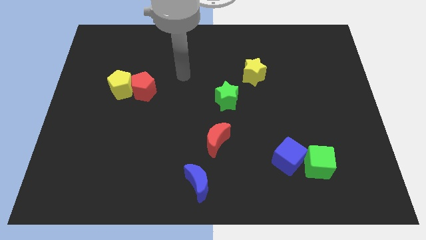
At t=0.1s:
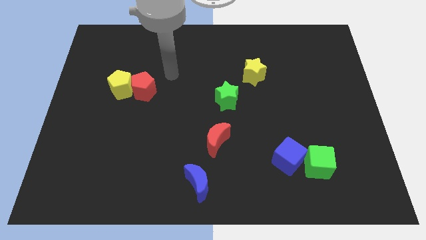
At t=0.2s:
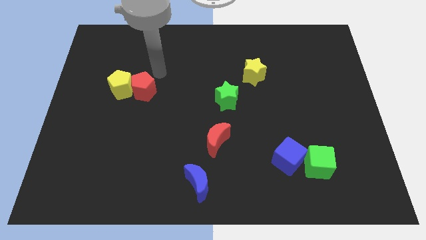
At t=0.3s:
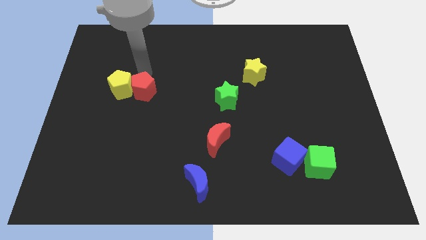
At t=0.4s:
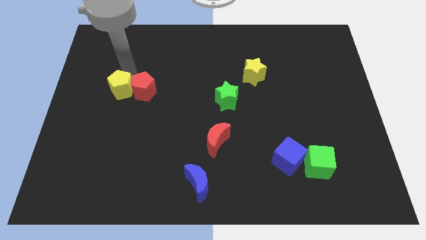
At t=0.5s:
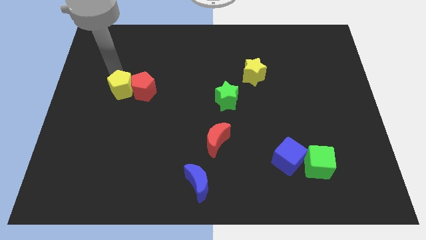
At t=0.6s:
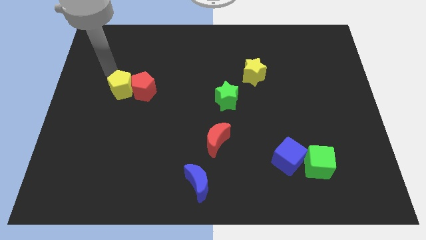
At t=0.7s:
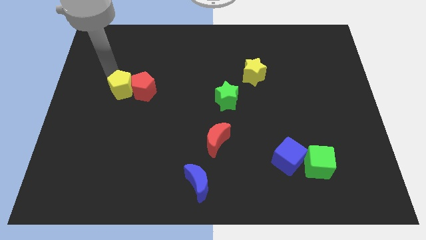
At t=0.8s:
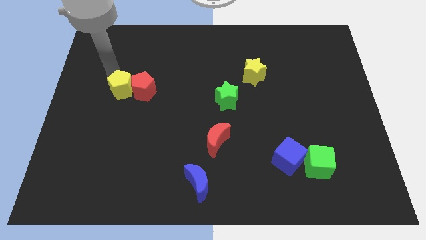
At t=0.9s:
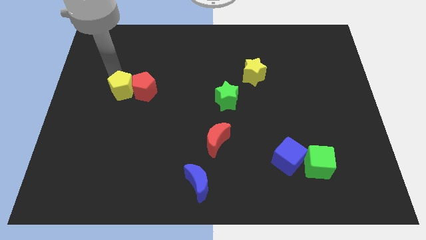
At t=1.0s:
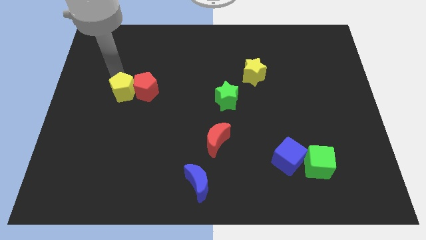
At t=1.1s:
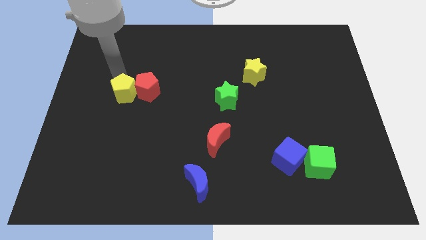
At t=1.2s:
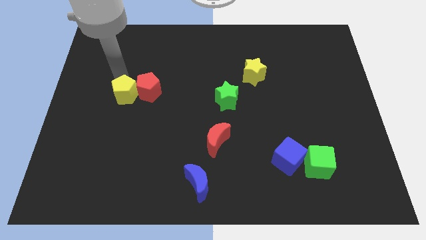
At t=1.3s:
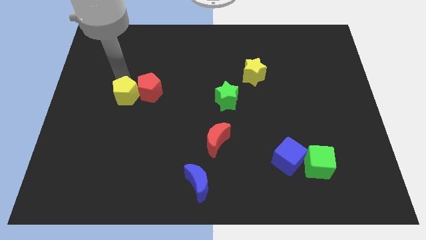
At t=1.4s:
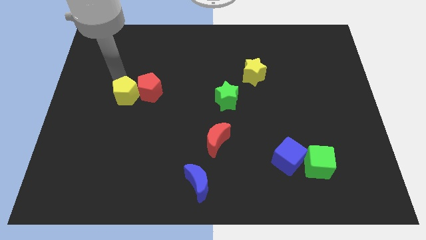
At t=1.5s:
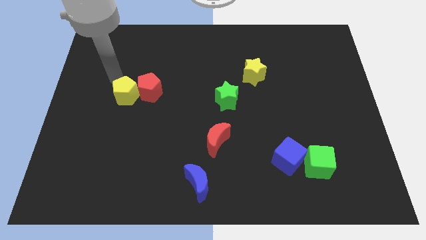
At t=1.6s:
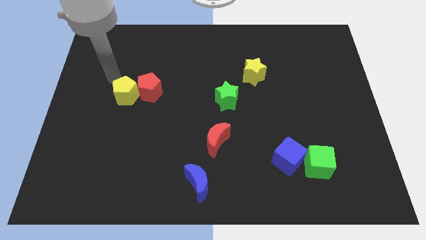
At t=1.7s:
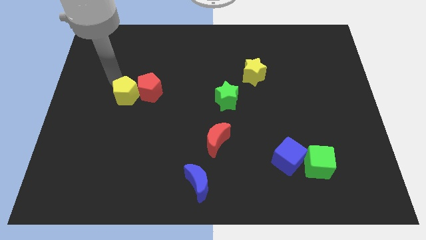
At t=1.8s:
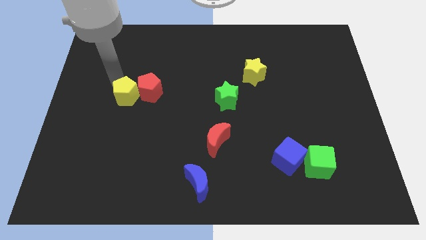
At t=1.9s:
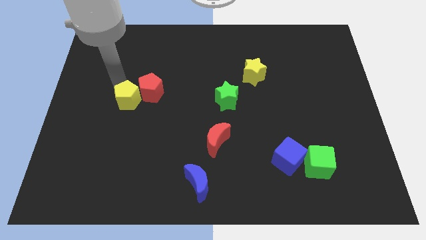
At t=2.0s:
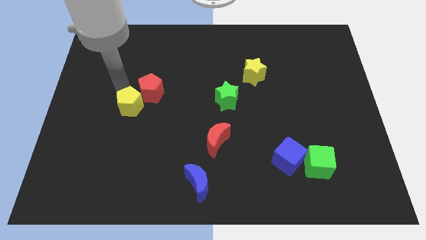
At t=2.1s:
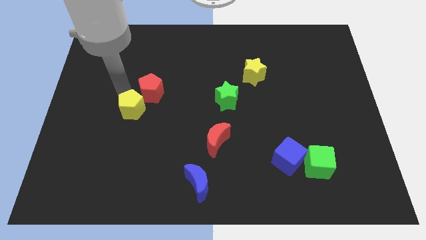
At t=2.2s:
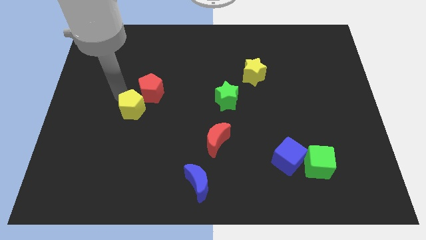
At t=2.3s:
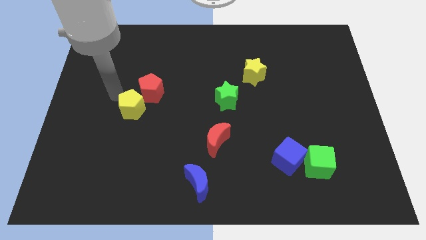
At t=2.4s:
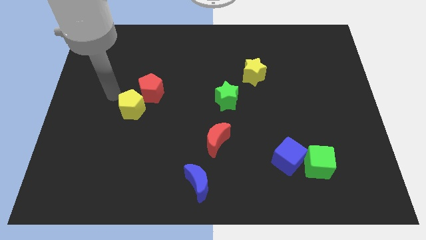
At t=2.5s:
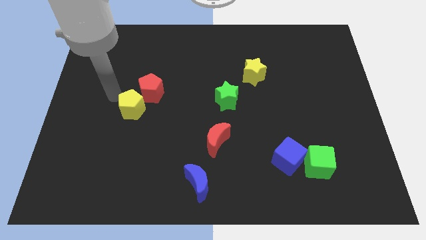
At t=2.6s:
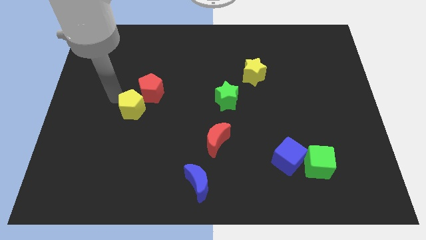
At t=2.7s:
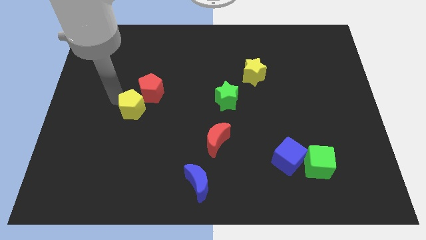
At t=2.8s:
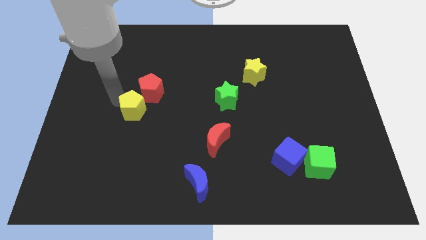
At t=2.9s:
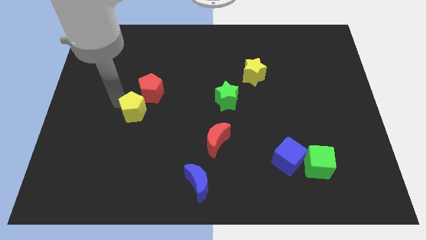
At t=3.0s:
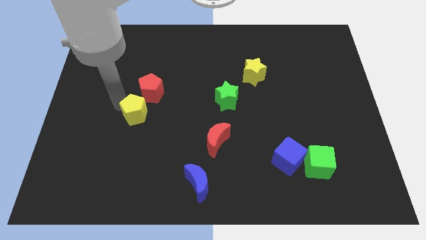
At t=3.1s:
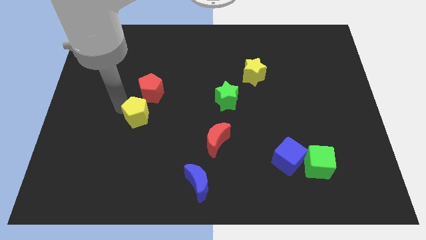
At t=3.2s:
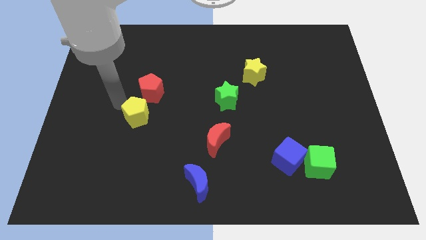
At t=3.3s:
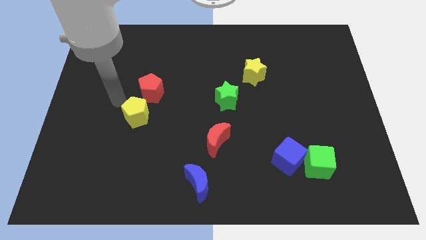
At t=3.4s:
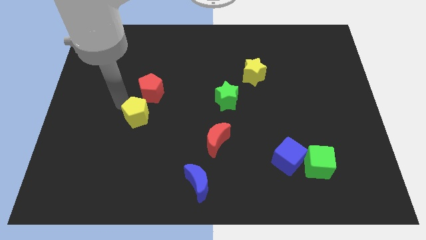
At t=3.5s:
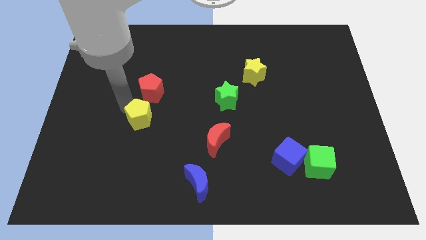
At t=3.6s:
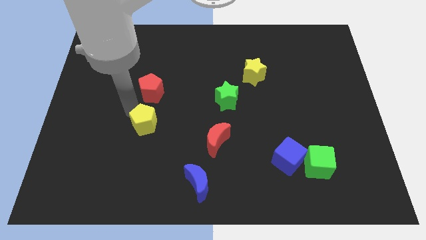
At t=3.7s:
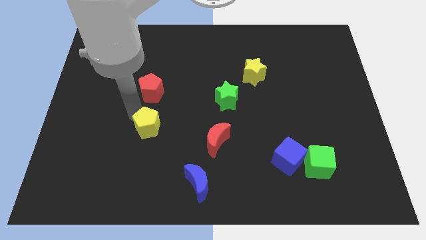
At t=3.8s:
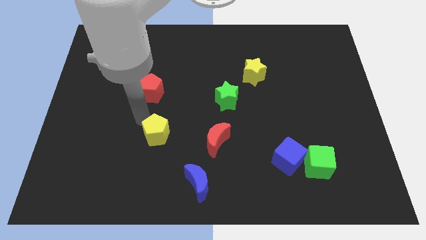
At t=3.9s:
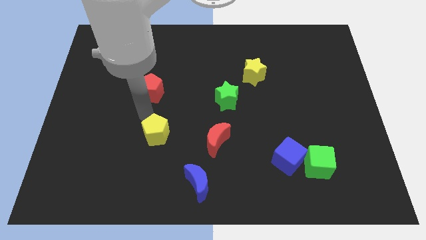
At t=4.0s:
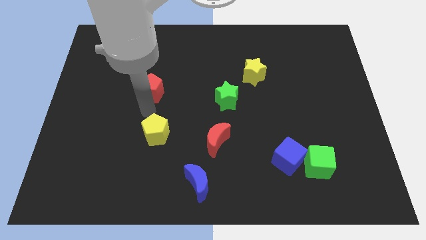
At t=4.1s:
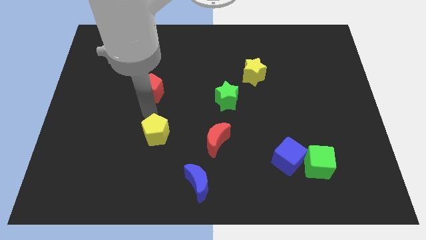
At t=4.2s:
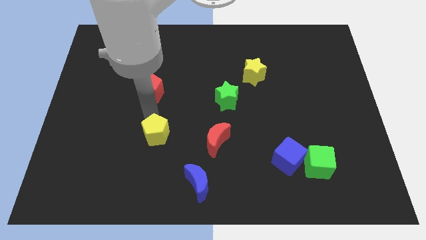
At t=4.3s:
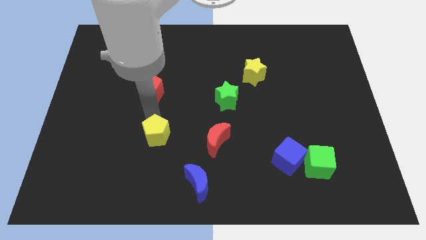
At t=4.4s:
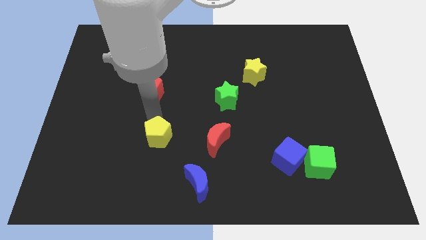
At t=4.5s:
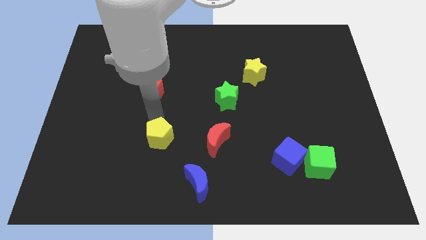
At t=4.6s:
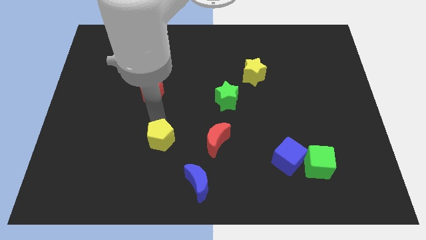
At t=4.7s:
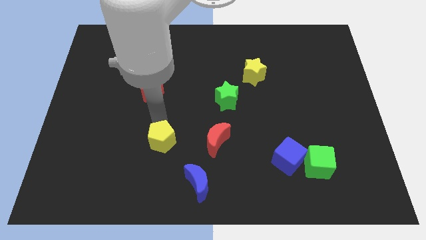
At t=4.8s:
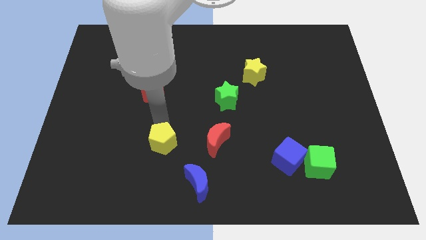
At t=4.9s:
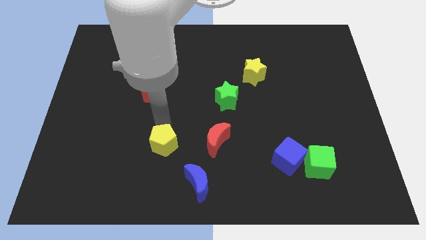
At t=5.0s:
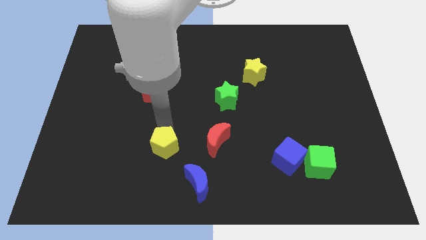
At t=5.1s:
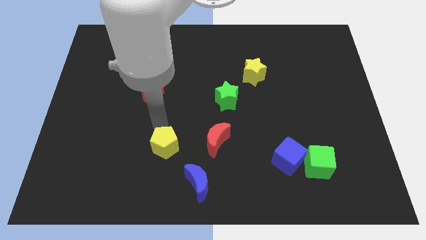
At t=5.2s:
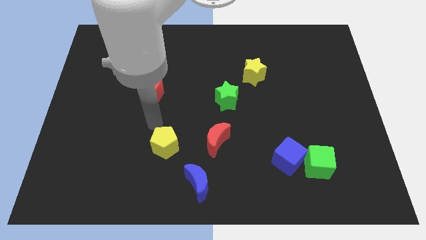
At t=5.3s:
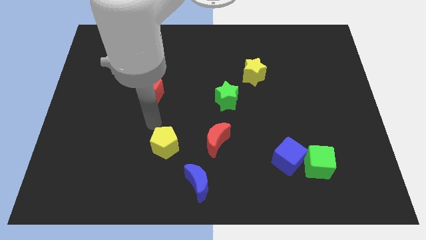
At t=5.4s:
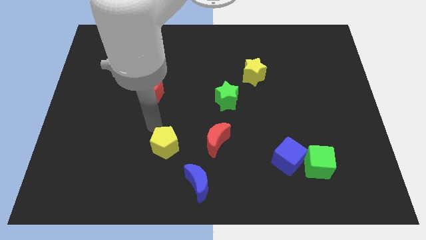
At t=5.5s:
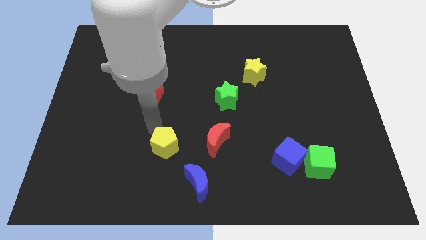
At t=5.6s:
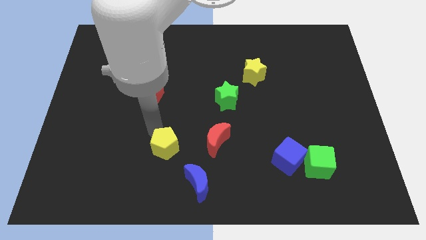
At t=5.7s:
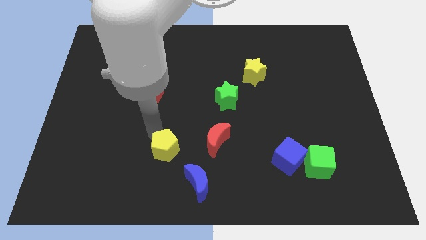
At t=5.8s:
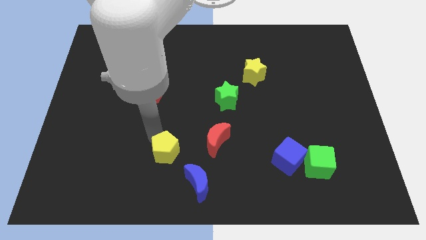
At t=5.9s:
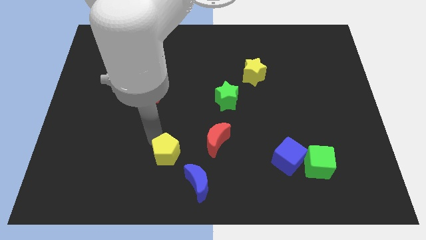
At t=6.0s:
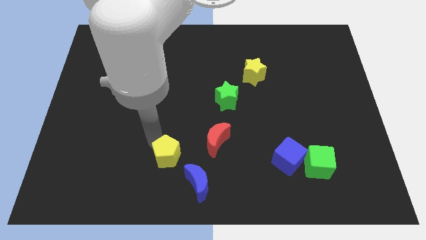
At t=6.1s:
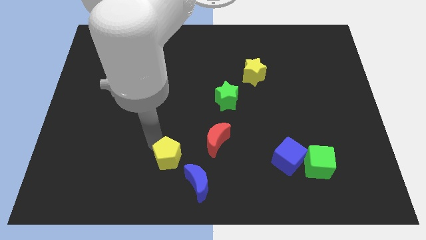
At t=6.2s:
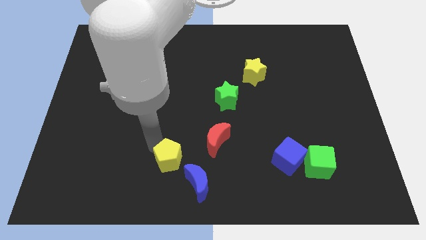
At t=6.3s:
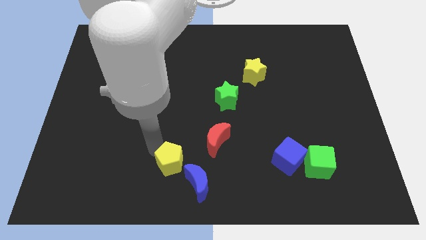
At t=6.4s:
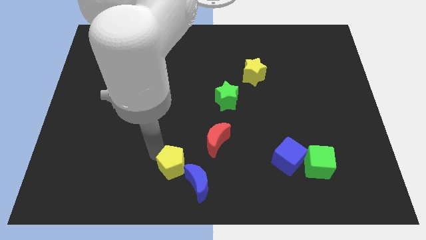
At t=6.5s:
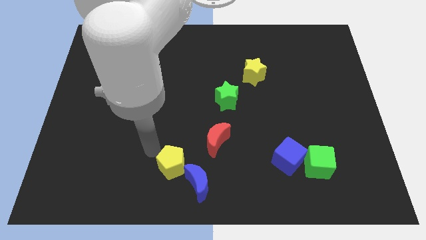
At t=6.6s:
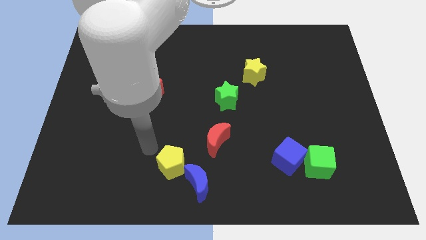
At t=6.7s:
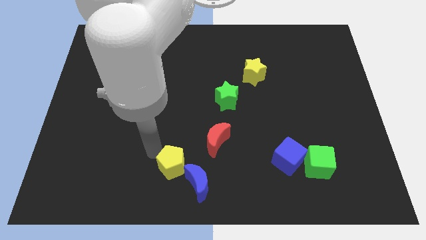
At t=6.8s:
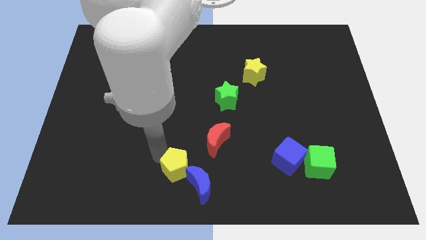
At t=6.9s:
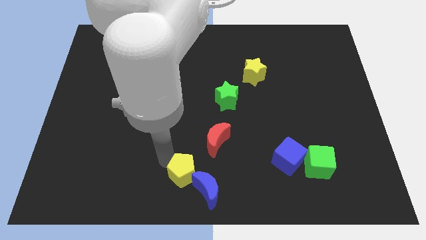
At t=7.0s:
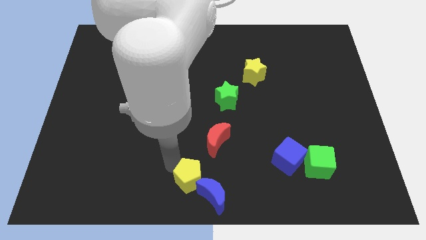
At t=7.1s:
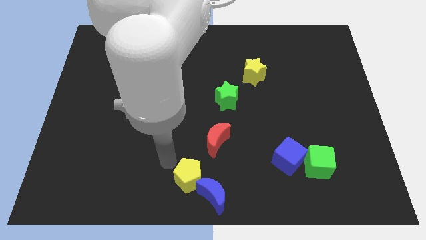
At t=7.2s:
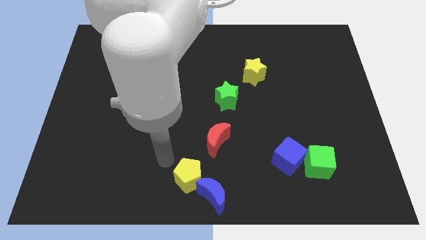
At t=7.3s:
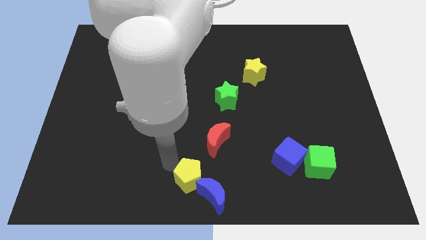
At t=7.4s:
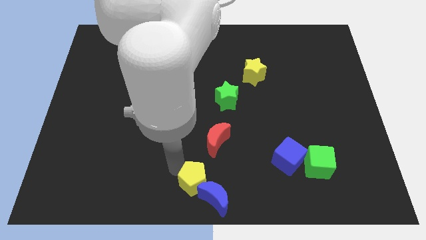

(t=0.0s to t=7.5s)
move the yellow pentagon next to the blue moon

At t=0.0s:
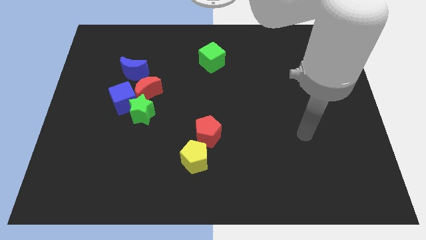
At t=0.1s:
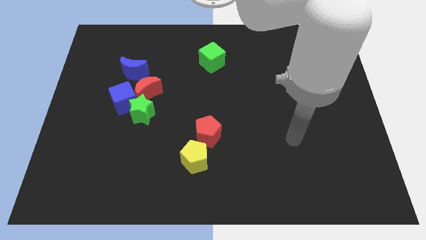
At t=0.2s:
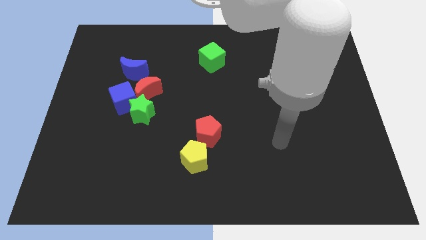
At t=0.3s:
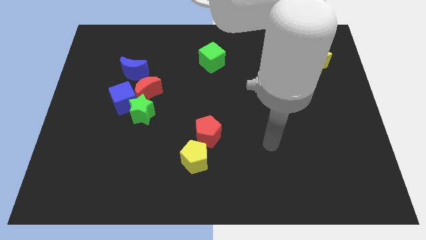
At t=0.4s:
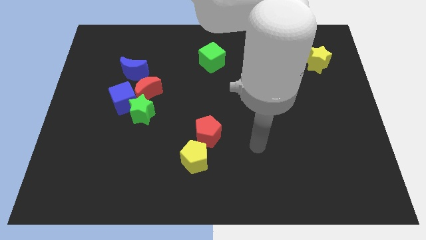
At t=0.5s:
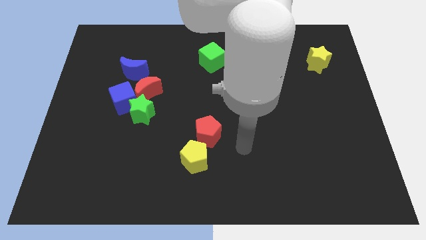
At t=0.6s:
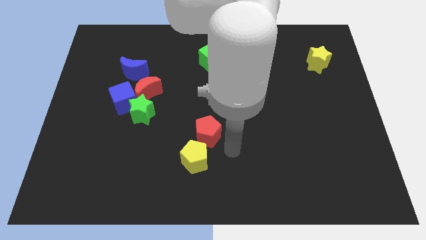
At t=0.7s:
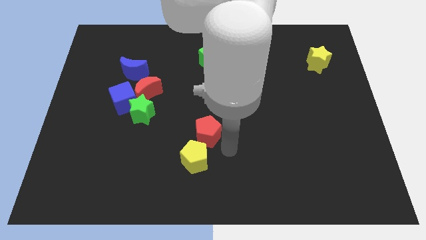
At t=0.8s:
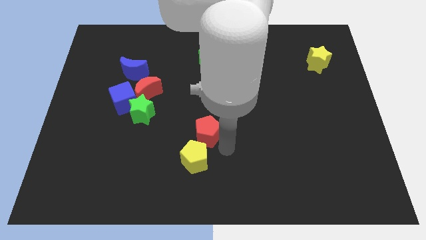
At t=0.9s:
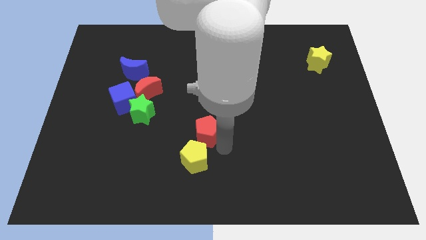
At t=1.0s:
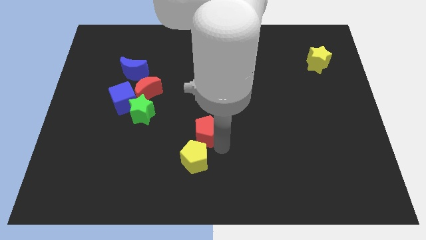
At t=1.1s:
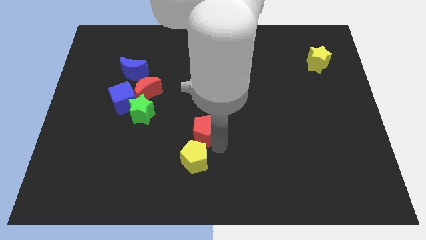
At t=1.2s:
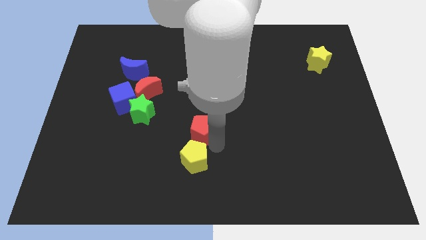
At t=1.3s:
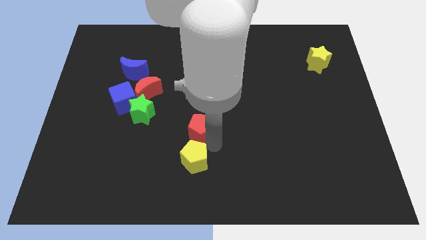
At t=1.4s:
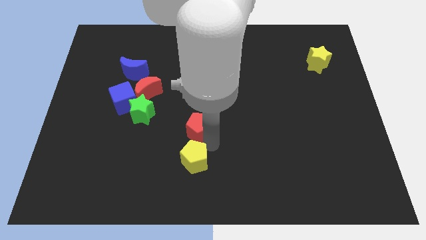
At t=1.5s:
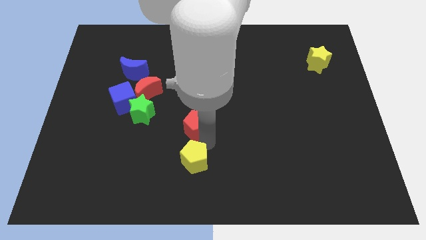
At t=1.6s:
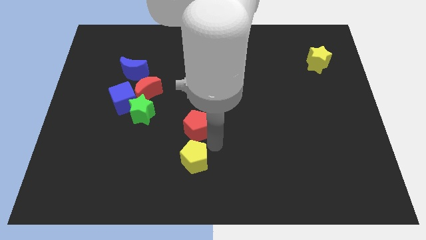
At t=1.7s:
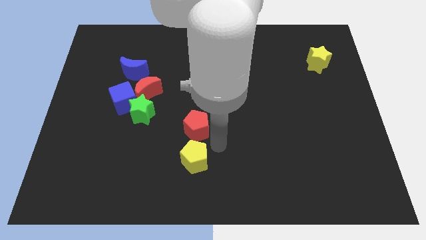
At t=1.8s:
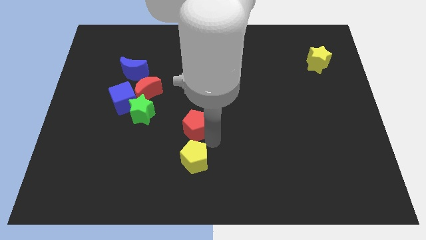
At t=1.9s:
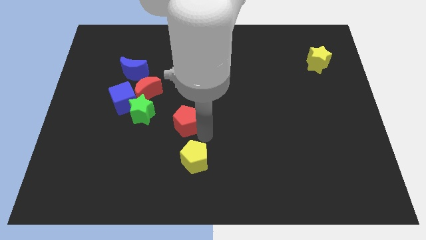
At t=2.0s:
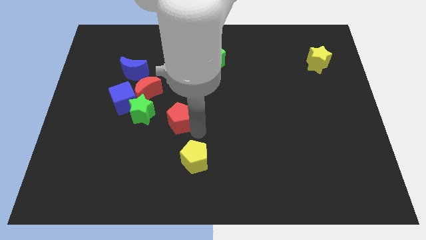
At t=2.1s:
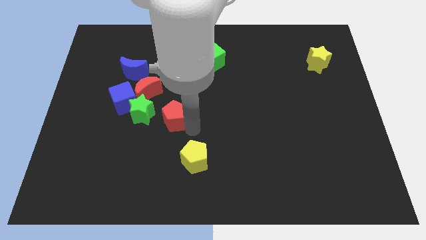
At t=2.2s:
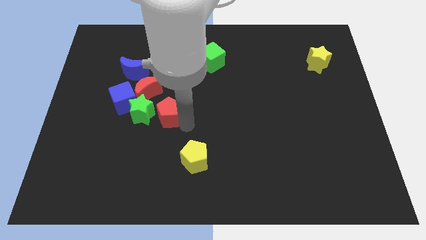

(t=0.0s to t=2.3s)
push the red pentagon next to the green star
